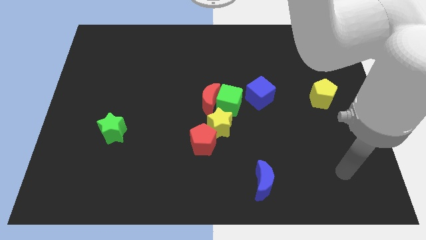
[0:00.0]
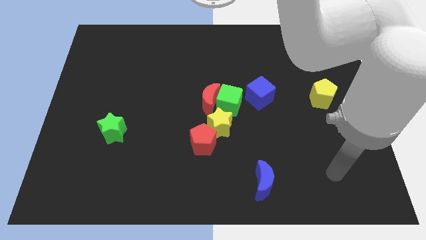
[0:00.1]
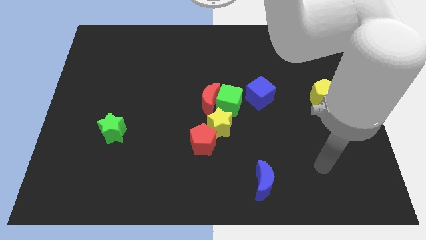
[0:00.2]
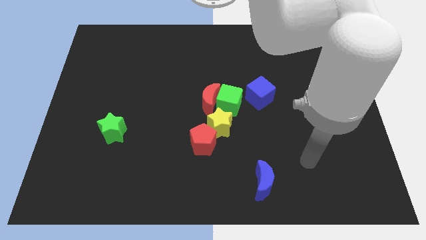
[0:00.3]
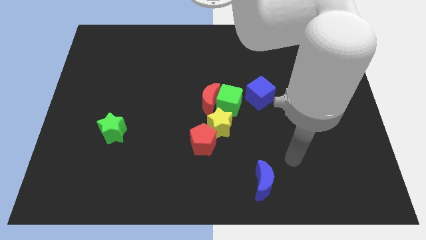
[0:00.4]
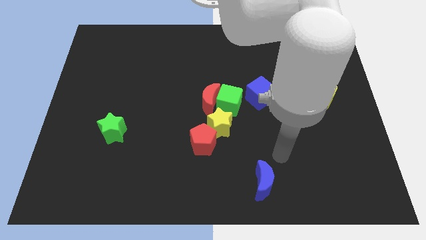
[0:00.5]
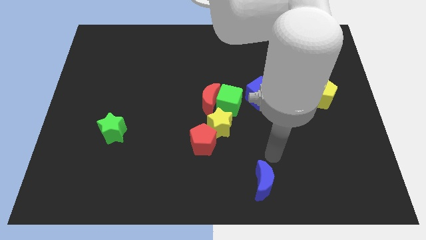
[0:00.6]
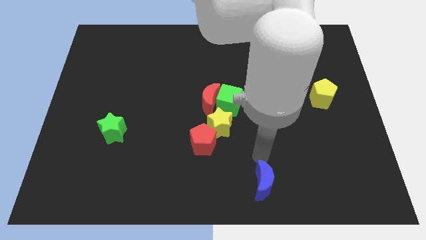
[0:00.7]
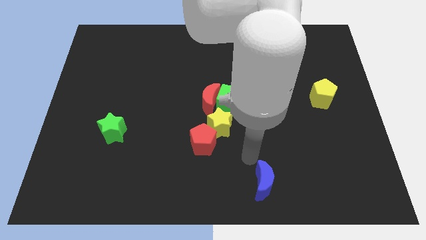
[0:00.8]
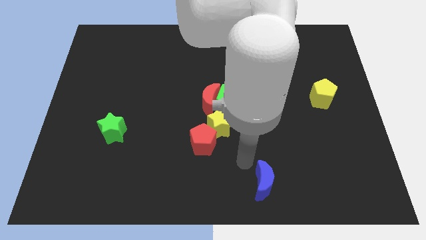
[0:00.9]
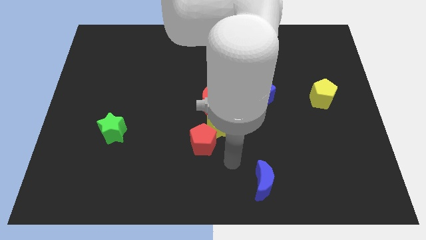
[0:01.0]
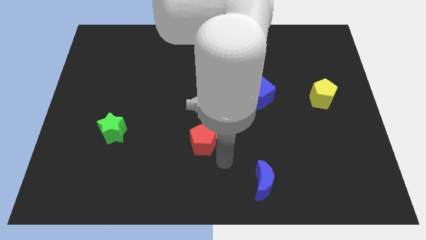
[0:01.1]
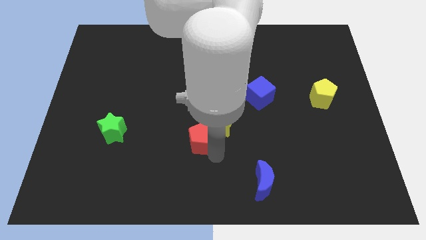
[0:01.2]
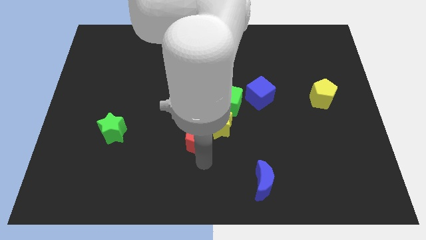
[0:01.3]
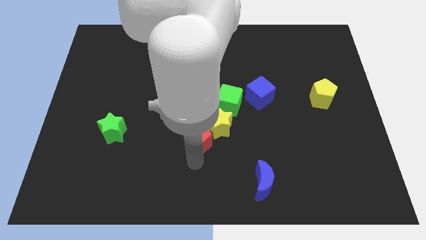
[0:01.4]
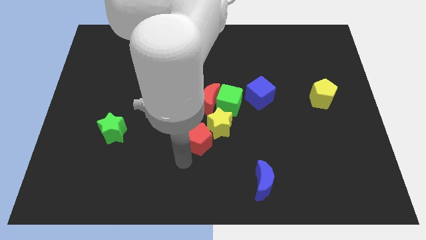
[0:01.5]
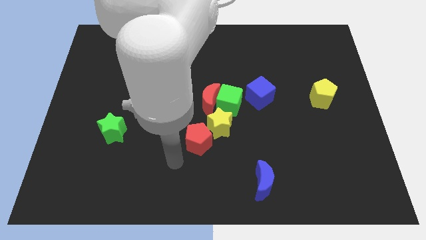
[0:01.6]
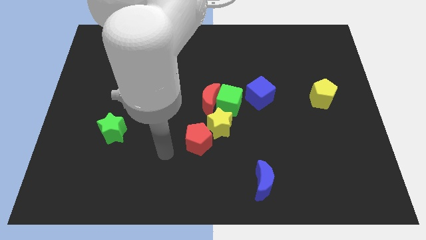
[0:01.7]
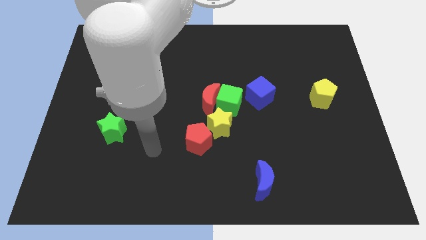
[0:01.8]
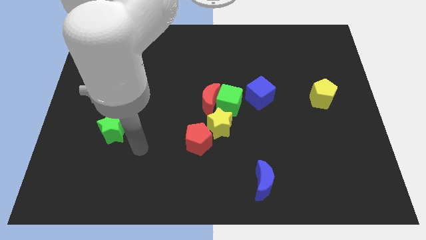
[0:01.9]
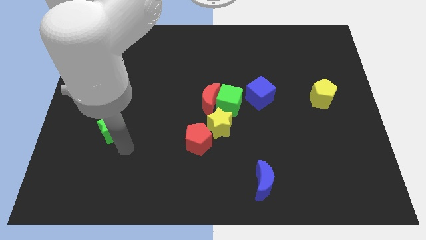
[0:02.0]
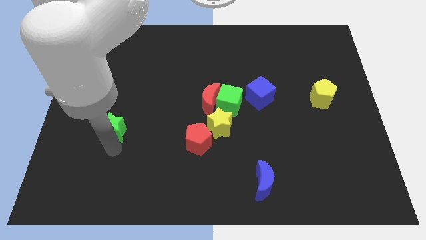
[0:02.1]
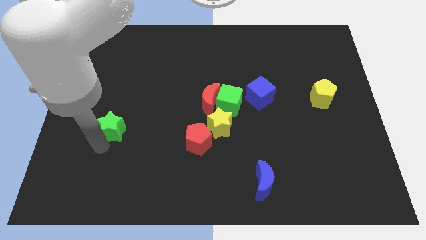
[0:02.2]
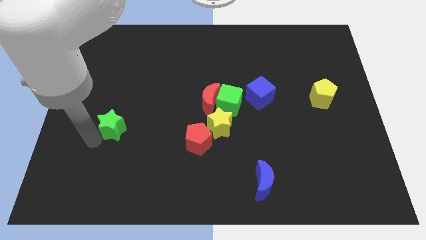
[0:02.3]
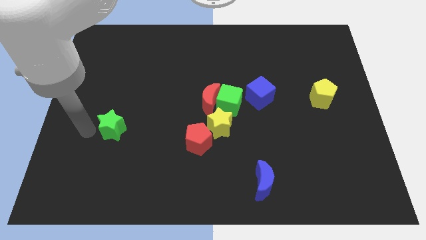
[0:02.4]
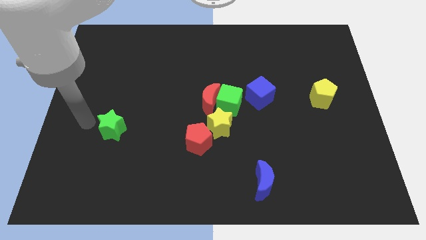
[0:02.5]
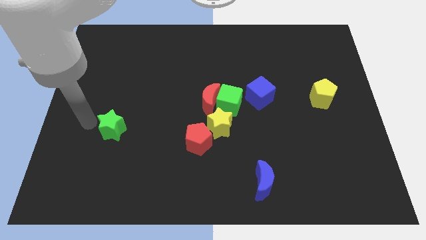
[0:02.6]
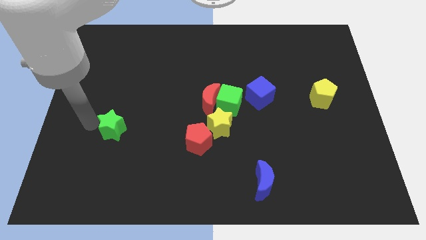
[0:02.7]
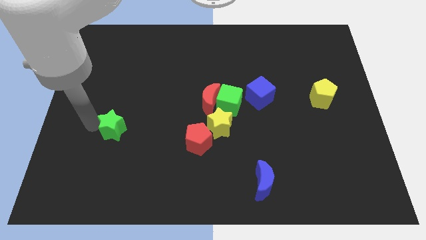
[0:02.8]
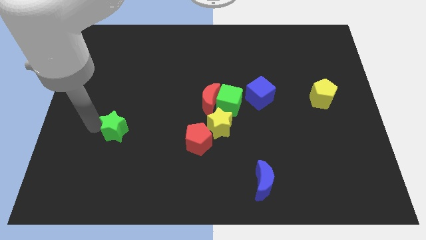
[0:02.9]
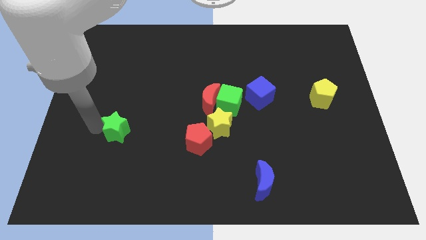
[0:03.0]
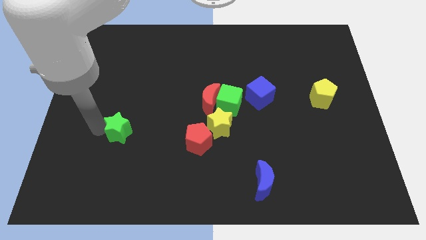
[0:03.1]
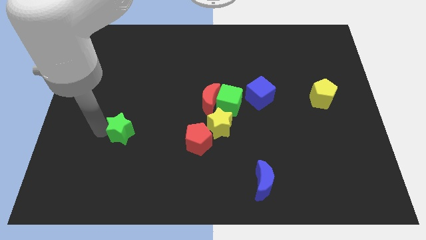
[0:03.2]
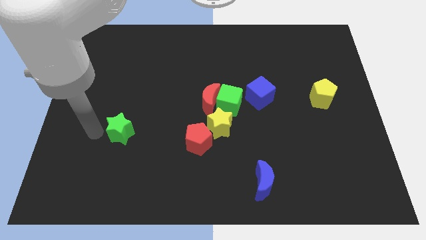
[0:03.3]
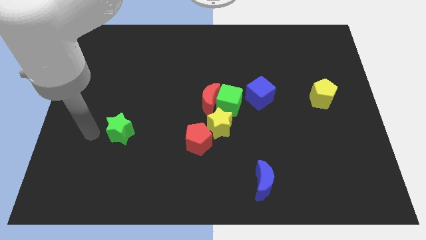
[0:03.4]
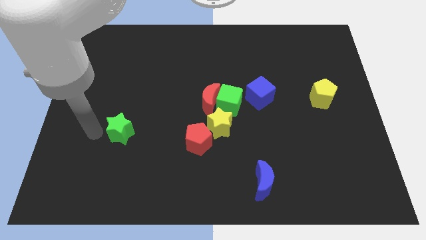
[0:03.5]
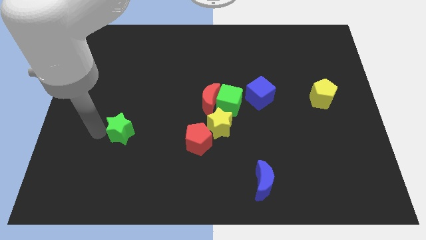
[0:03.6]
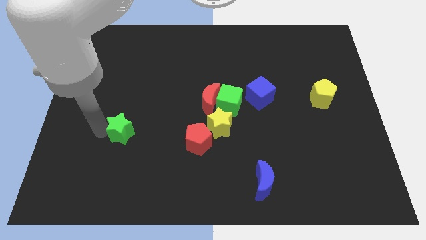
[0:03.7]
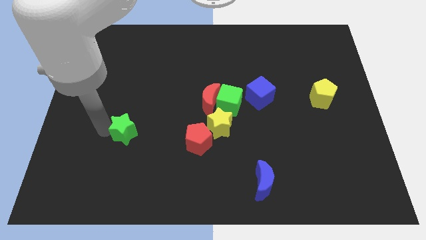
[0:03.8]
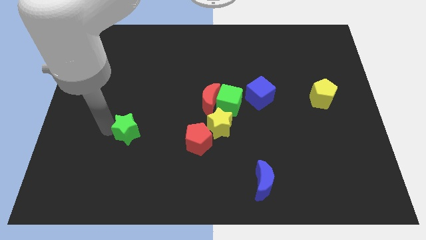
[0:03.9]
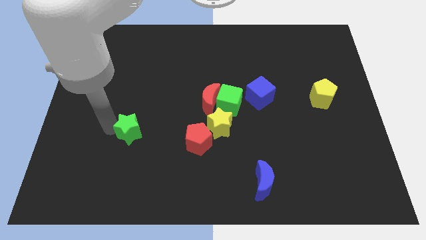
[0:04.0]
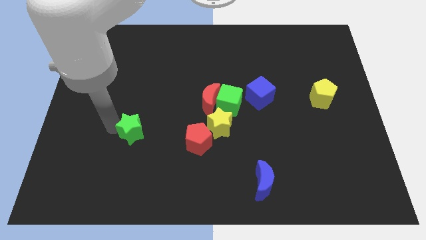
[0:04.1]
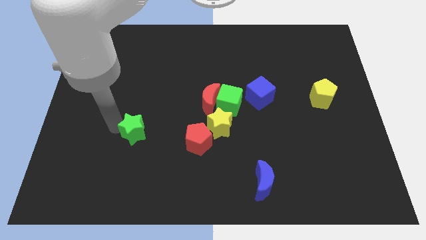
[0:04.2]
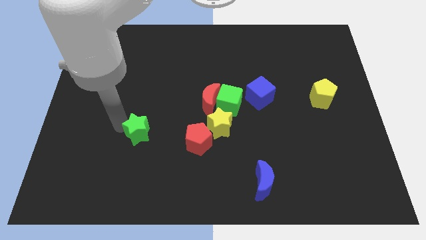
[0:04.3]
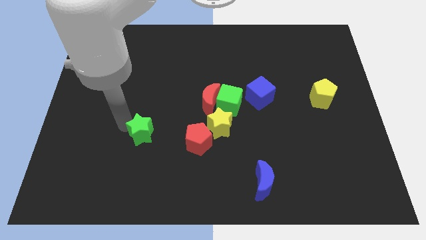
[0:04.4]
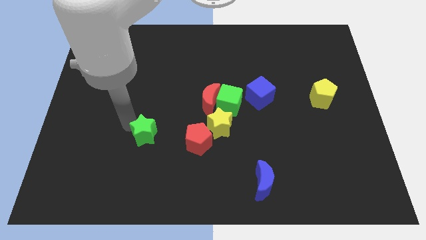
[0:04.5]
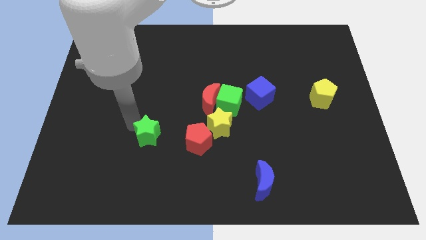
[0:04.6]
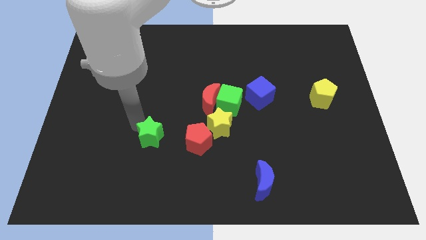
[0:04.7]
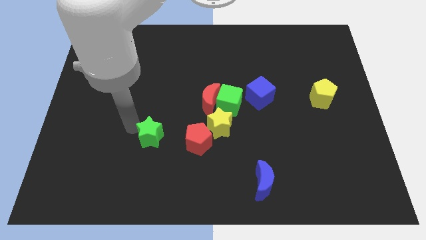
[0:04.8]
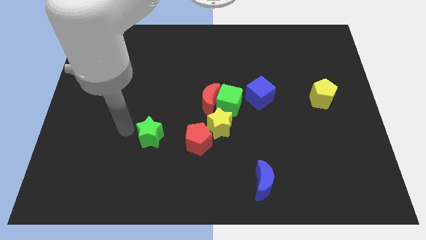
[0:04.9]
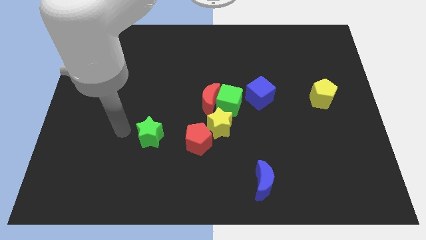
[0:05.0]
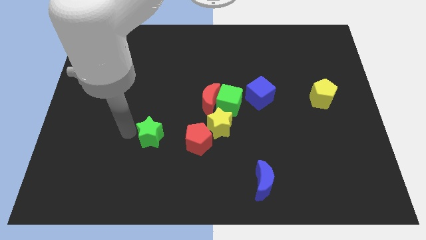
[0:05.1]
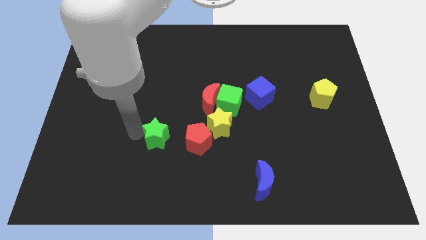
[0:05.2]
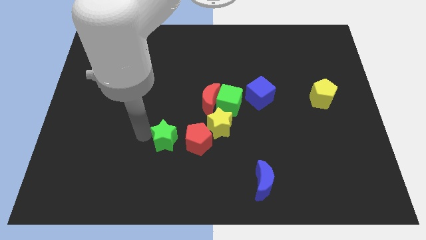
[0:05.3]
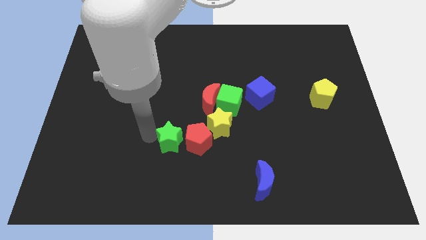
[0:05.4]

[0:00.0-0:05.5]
push the green star close to the red pentagon

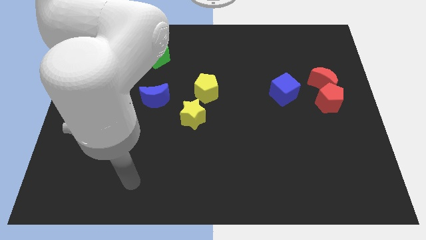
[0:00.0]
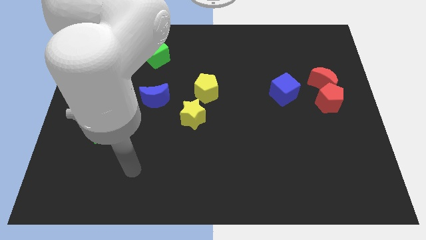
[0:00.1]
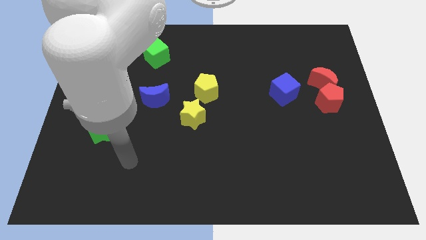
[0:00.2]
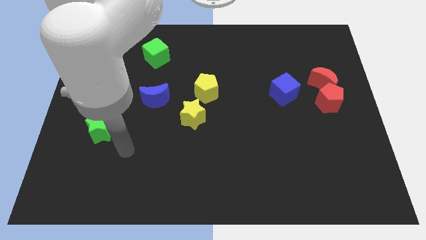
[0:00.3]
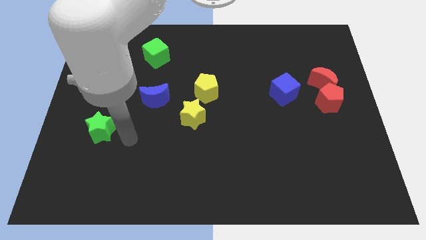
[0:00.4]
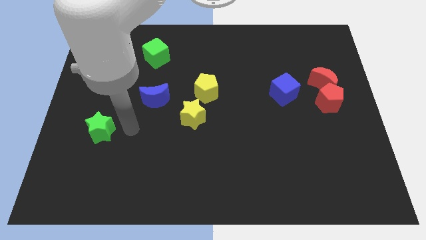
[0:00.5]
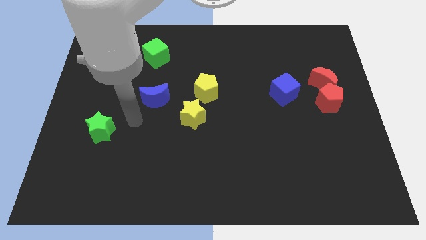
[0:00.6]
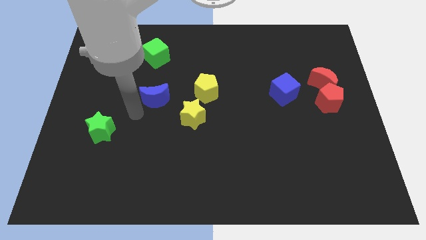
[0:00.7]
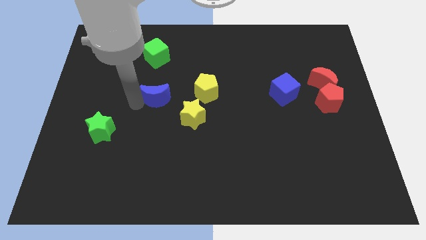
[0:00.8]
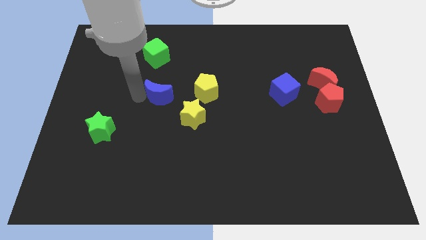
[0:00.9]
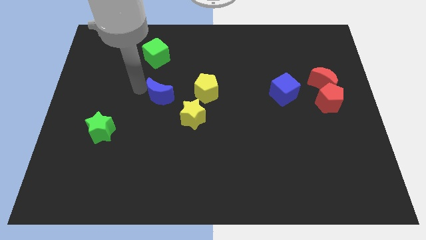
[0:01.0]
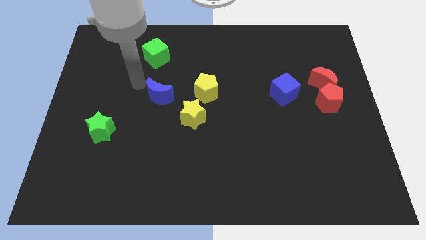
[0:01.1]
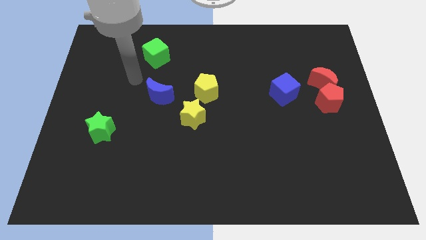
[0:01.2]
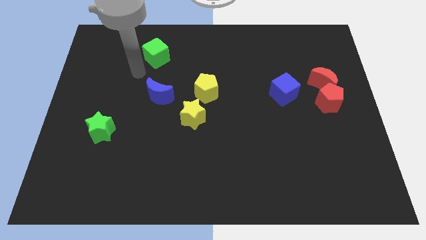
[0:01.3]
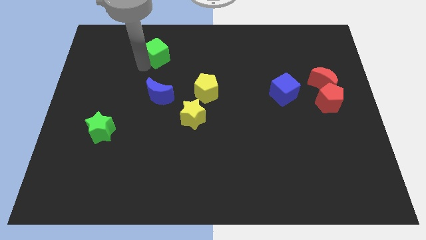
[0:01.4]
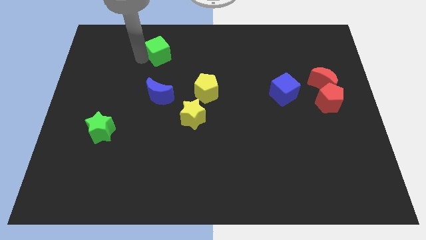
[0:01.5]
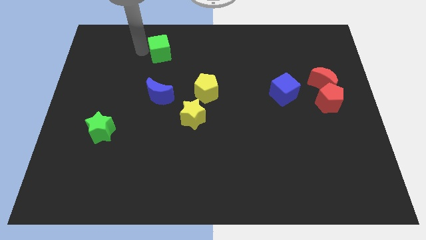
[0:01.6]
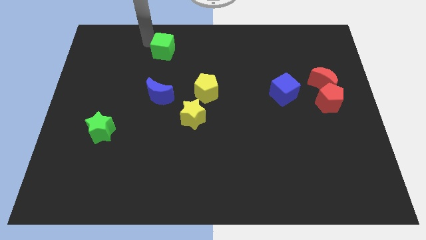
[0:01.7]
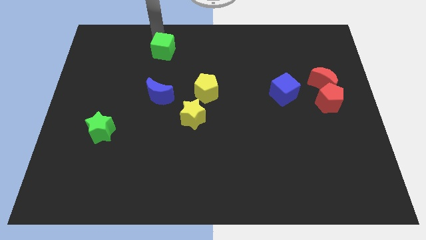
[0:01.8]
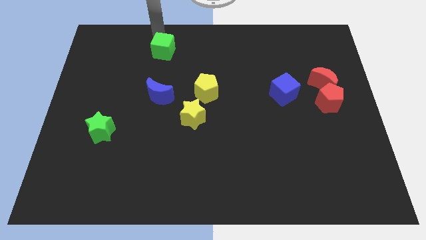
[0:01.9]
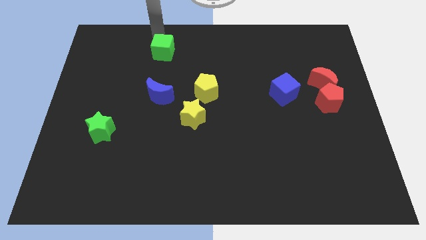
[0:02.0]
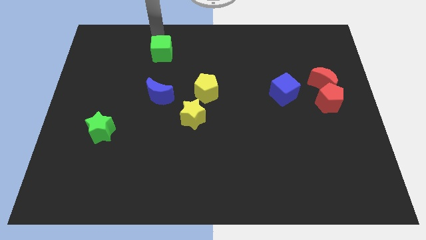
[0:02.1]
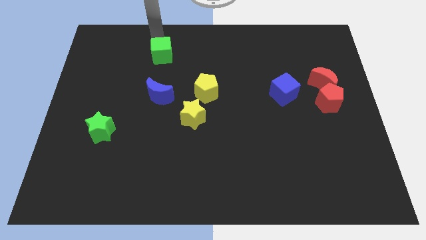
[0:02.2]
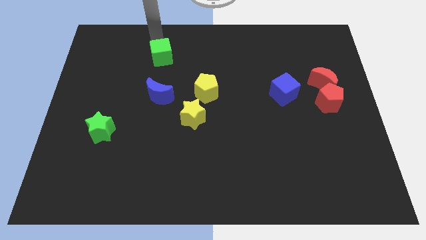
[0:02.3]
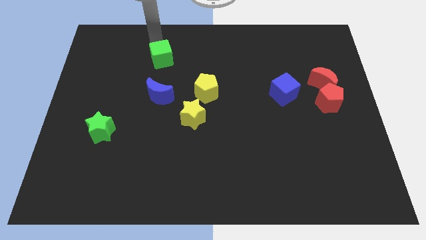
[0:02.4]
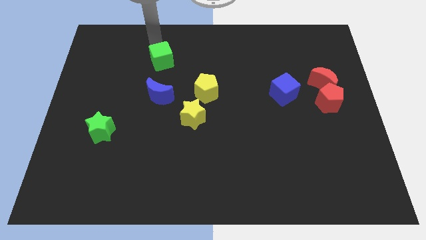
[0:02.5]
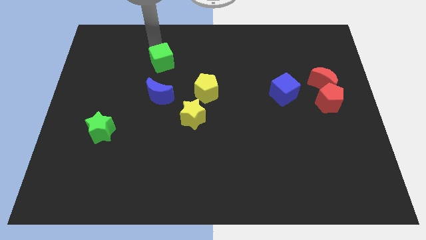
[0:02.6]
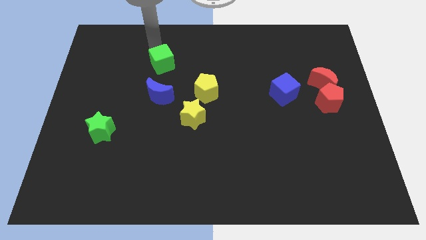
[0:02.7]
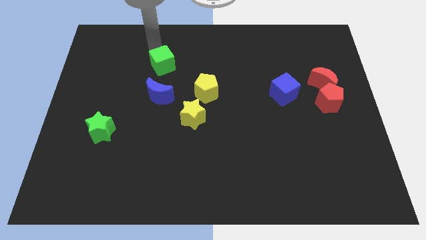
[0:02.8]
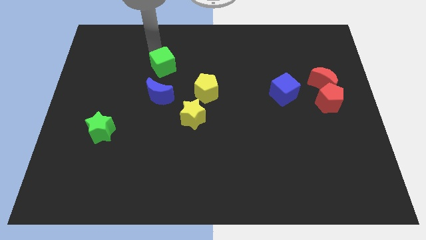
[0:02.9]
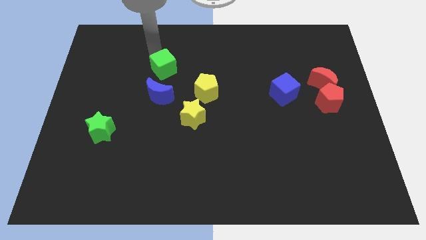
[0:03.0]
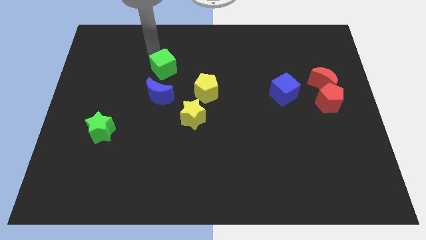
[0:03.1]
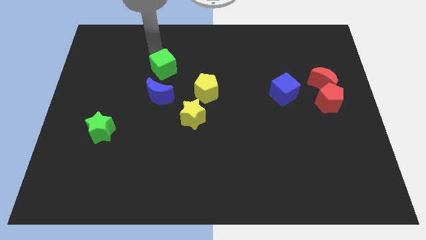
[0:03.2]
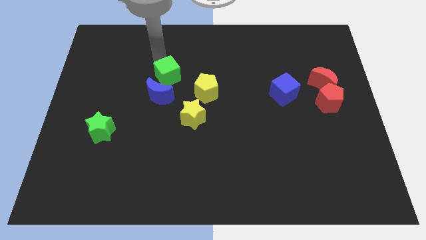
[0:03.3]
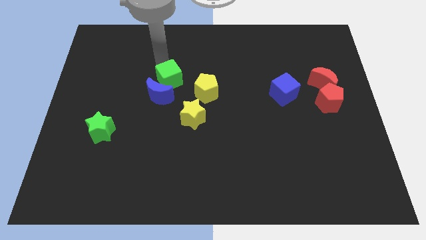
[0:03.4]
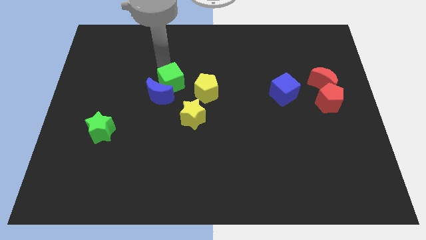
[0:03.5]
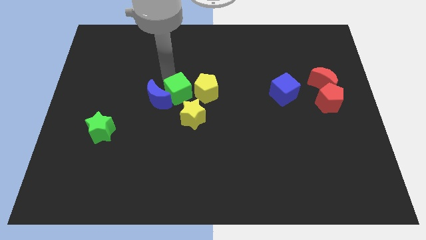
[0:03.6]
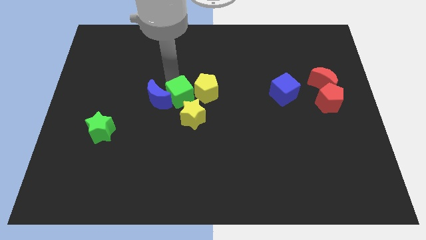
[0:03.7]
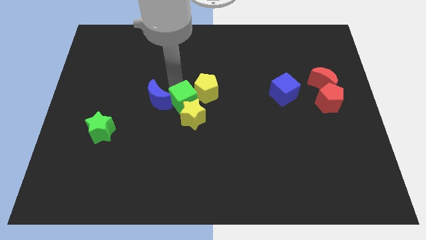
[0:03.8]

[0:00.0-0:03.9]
put the green cube close to the yellow star
